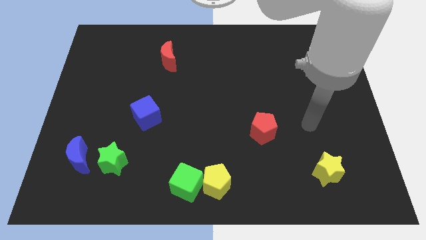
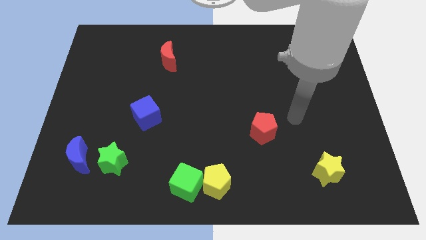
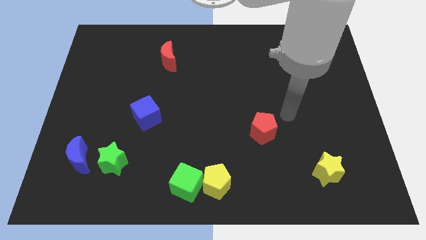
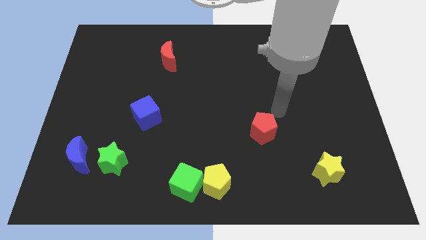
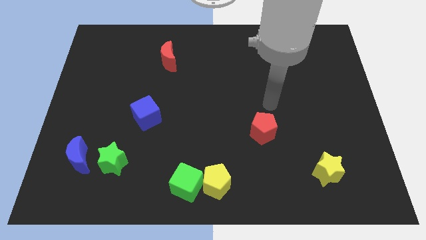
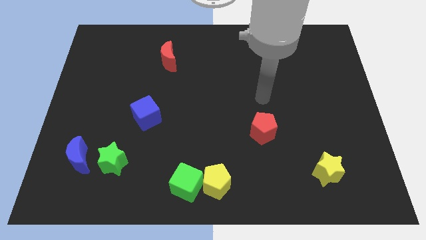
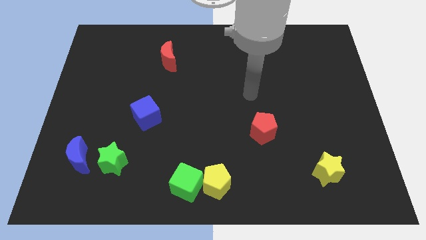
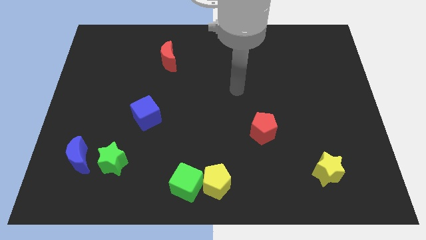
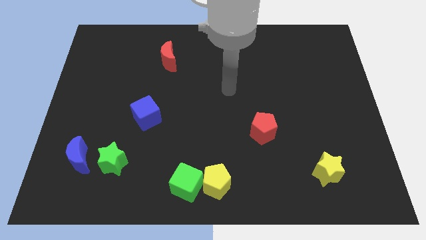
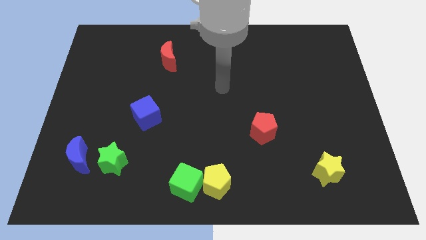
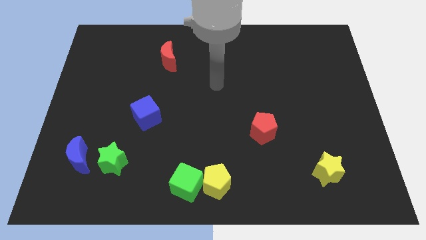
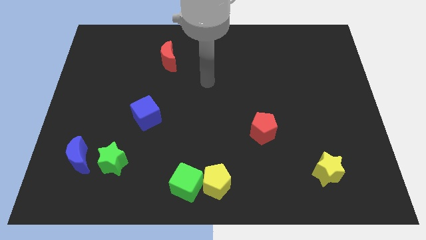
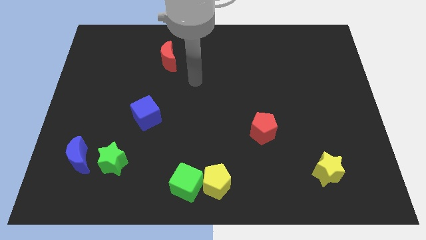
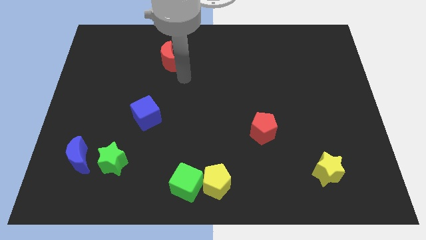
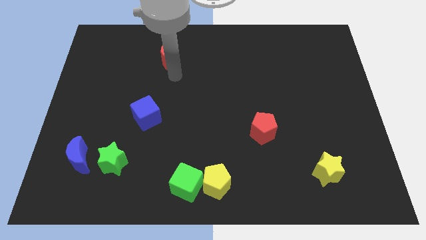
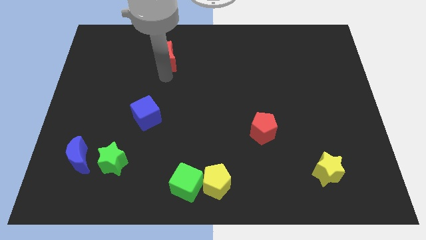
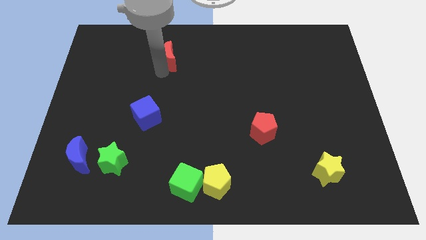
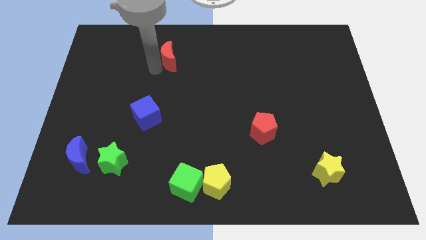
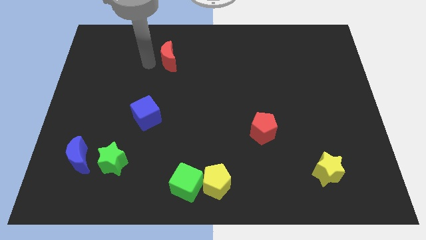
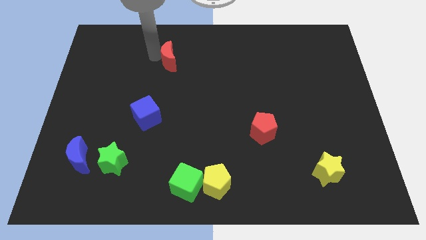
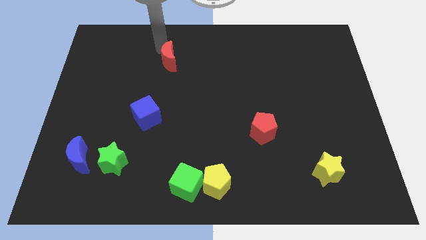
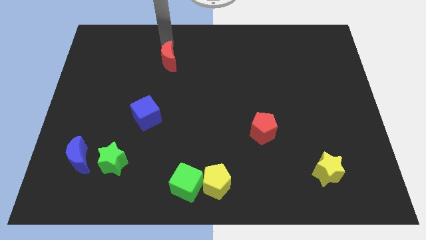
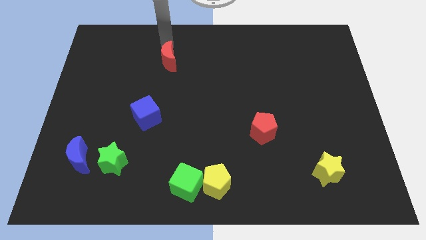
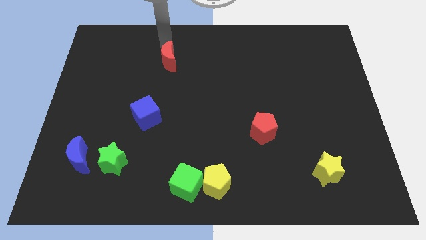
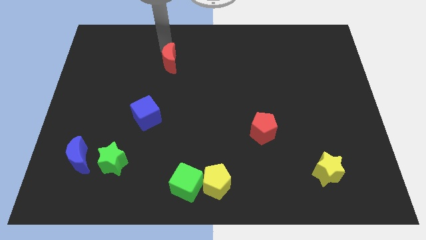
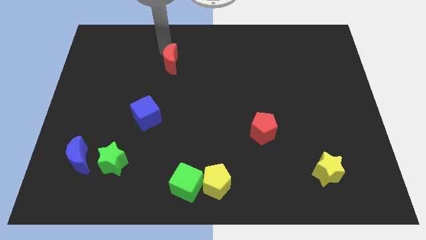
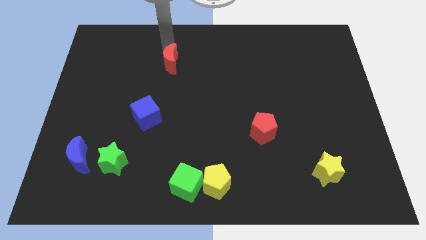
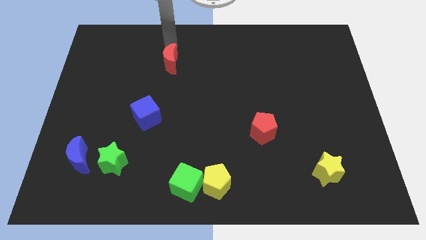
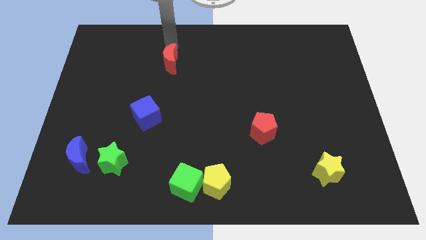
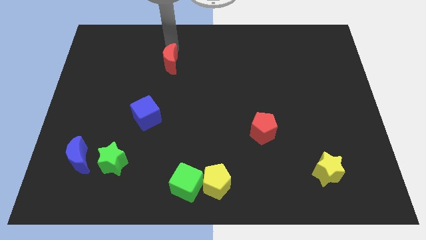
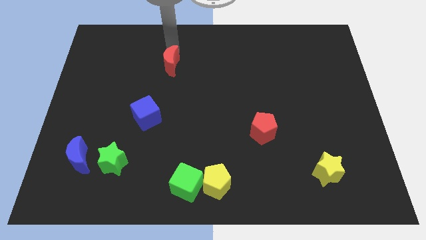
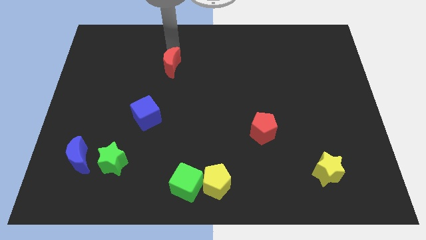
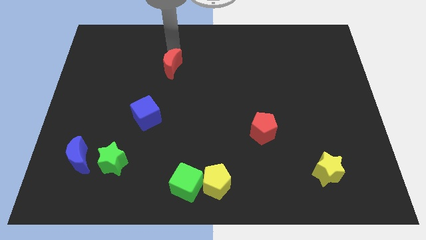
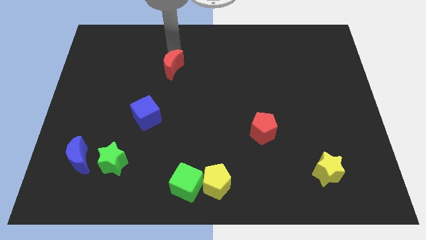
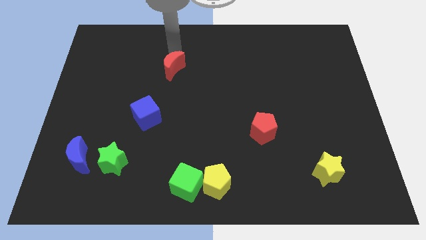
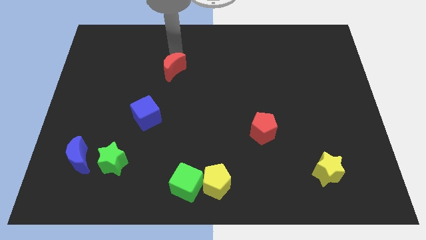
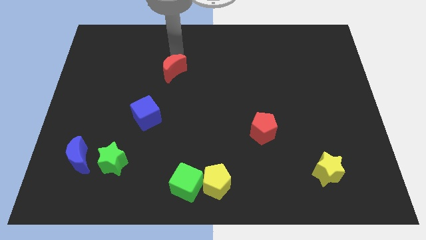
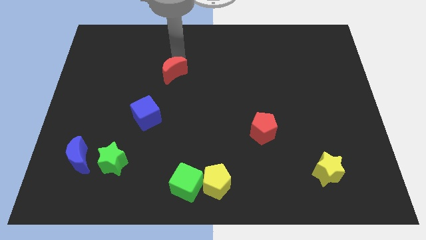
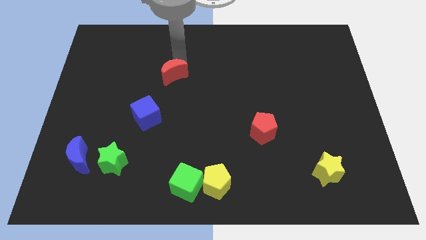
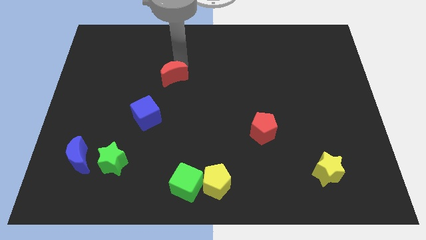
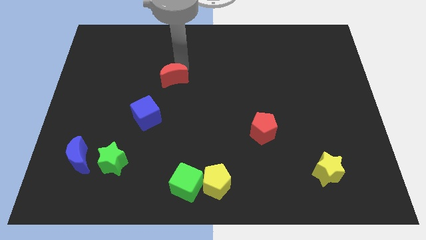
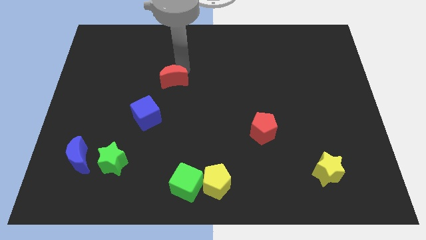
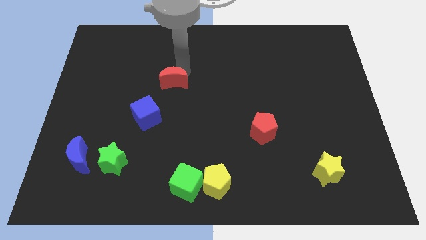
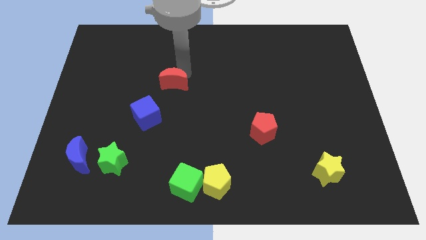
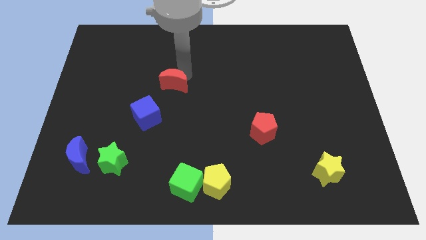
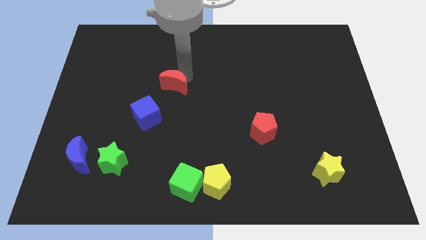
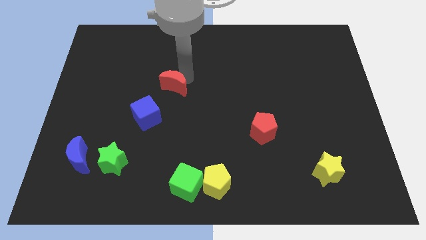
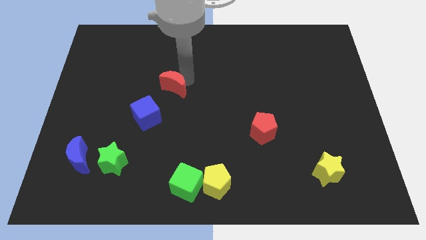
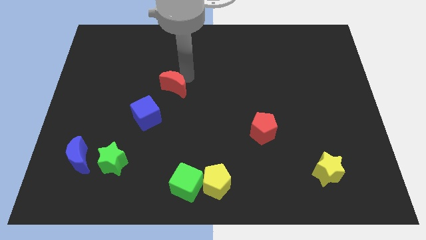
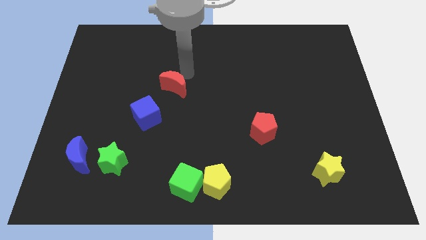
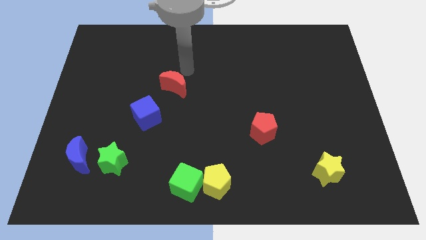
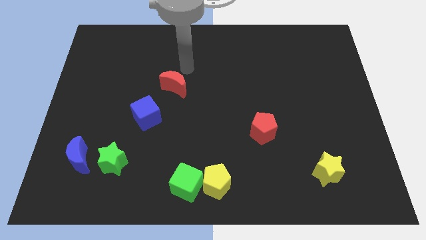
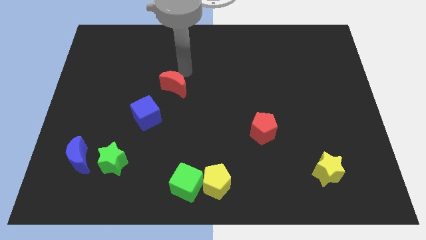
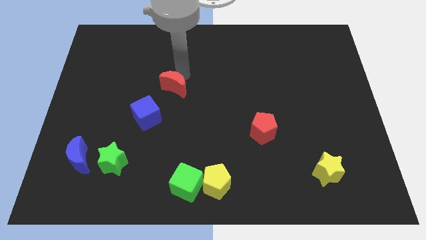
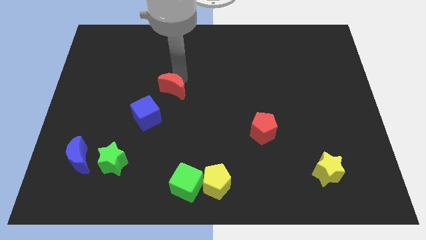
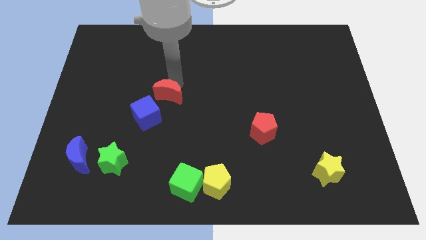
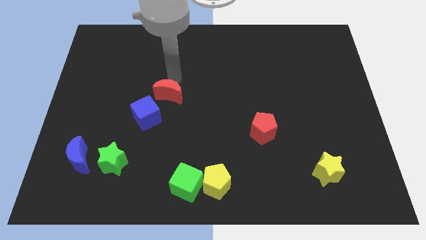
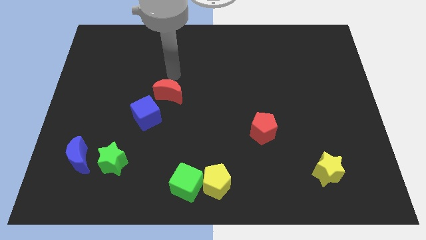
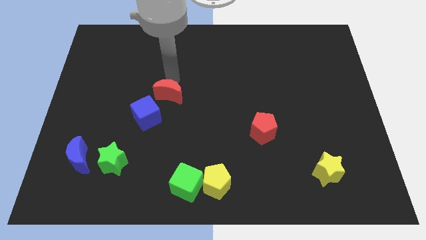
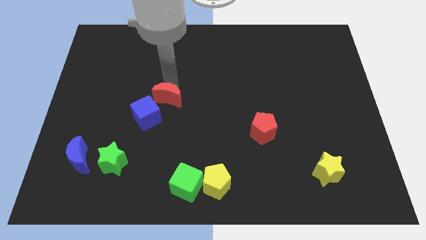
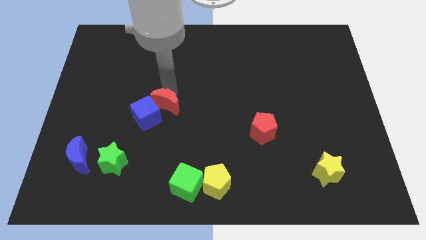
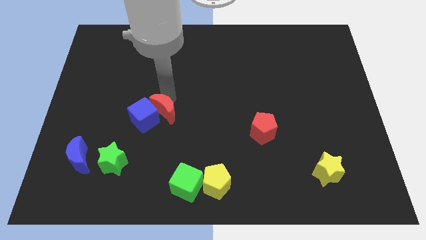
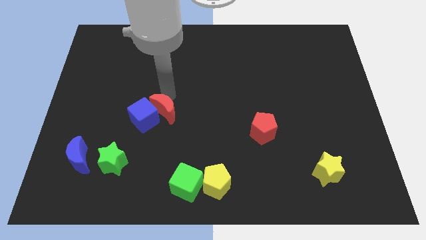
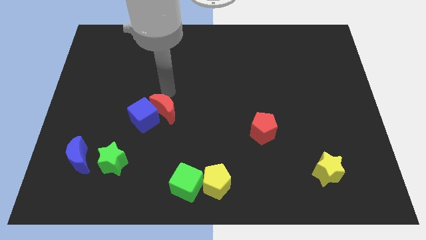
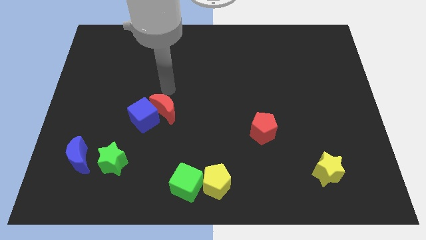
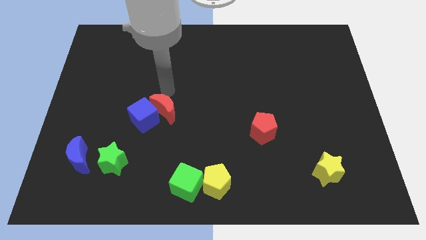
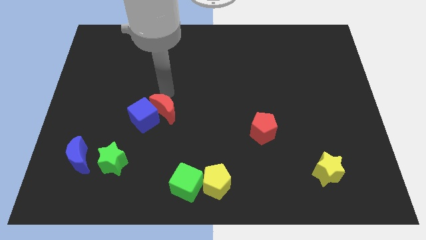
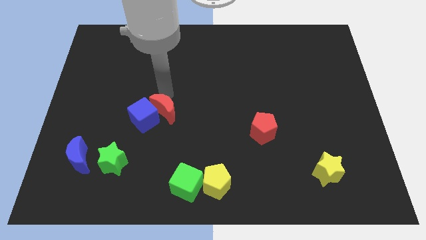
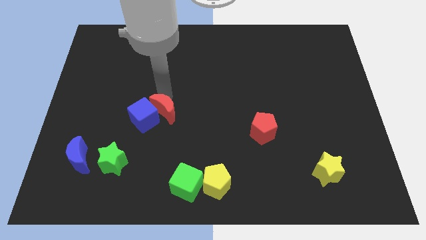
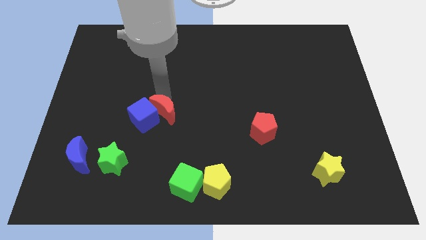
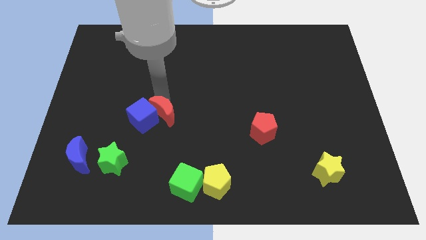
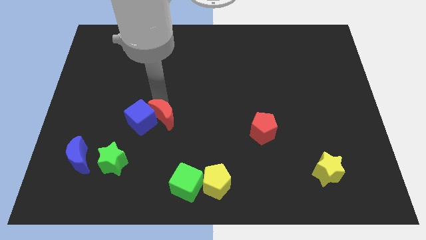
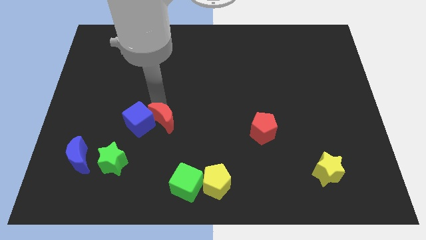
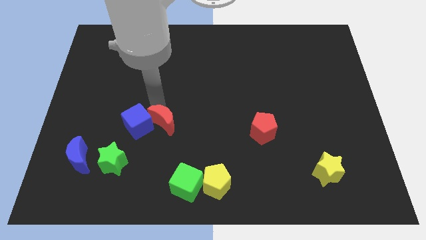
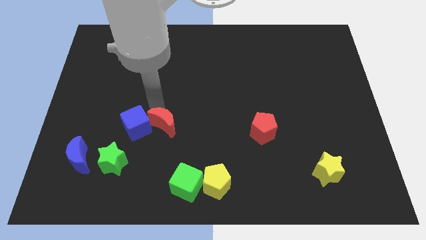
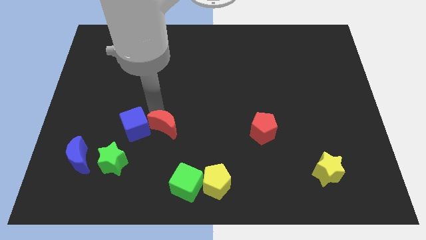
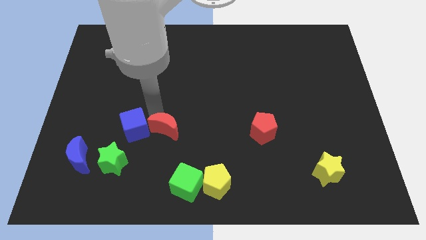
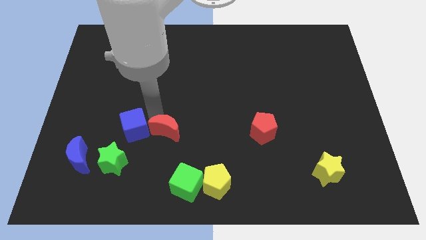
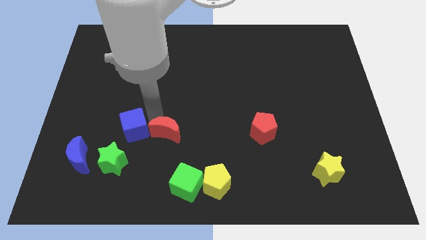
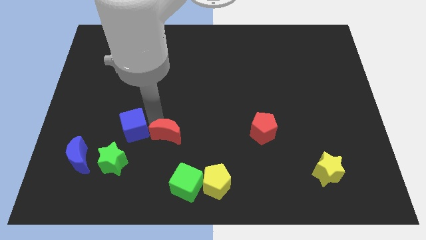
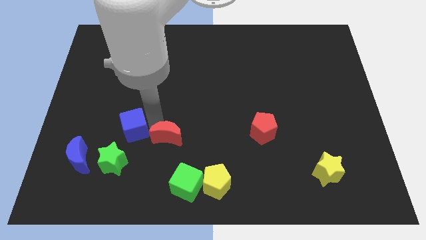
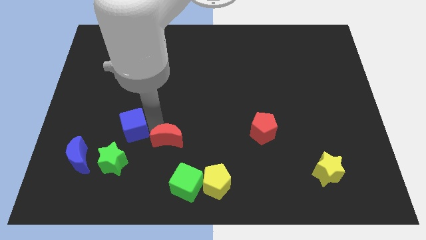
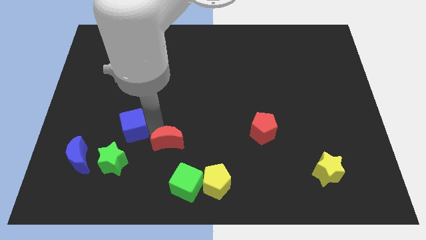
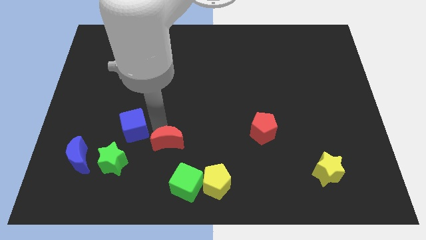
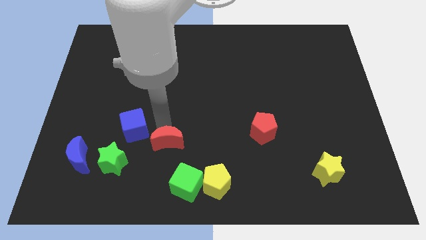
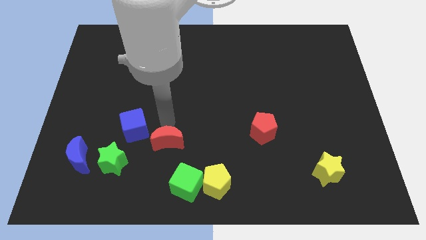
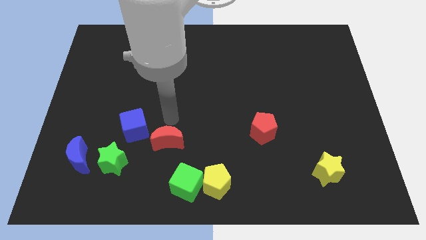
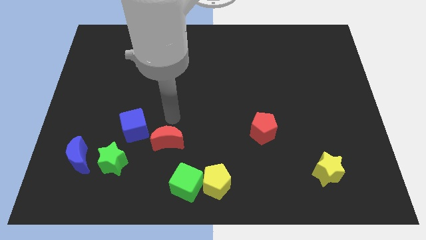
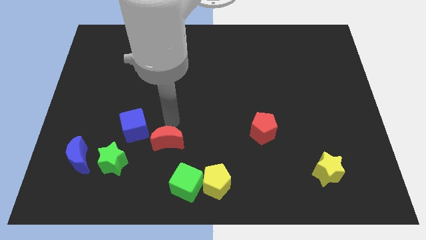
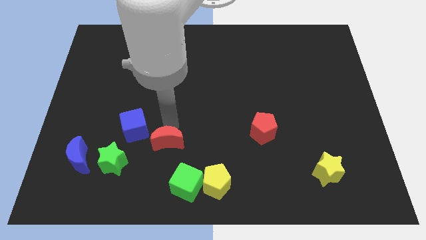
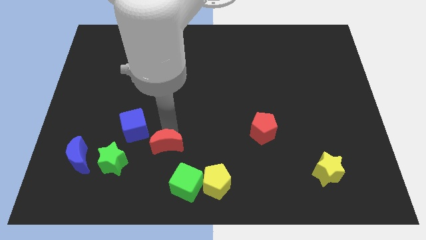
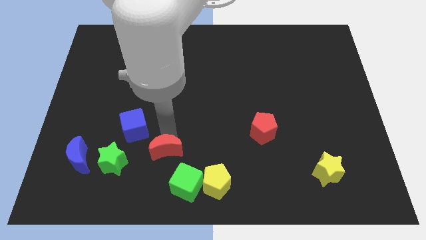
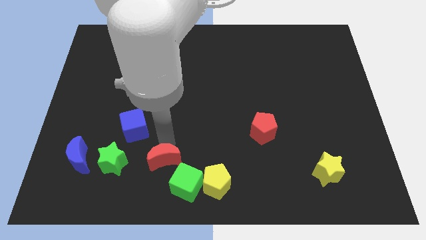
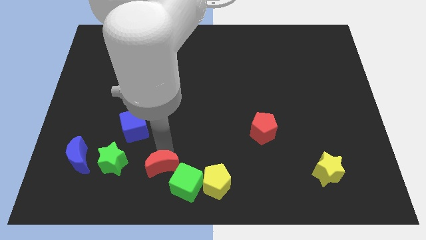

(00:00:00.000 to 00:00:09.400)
move the red moon to the left side of the yellow pentagon
